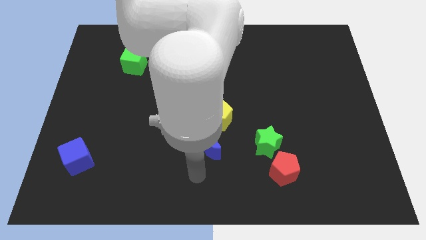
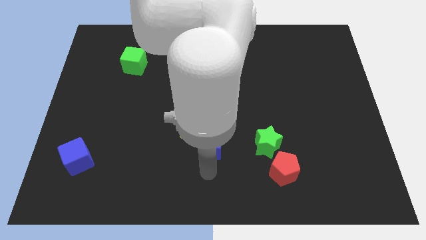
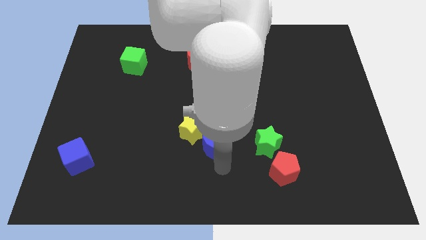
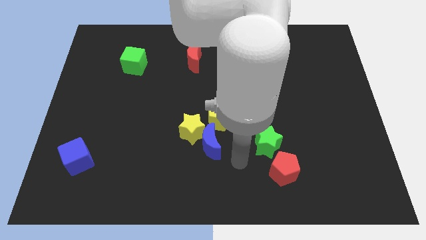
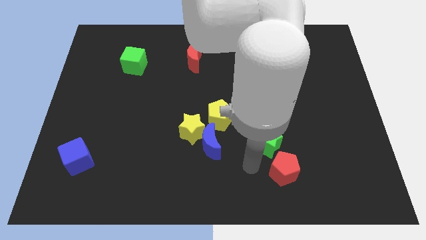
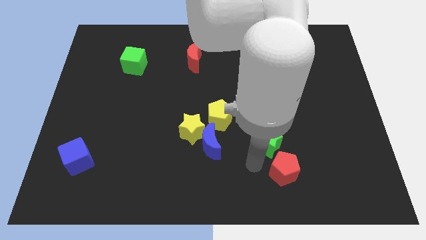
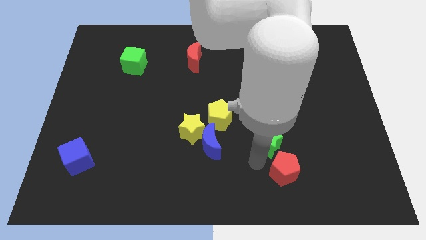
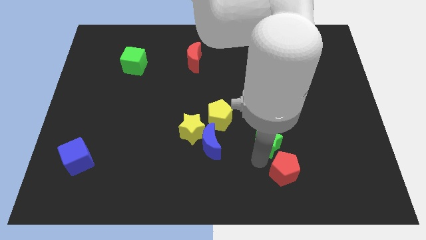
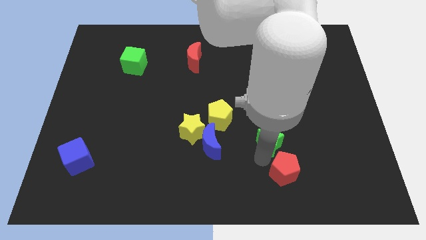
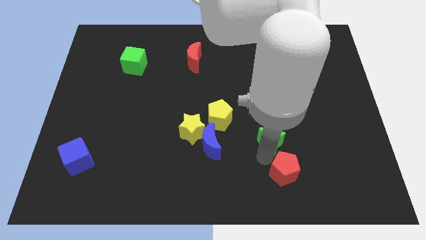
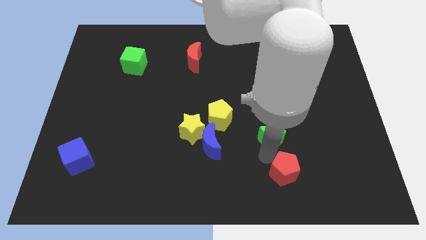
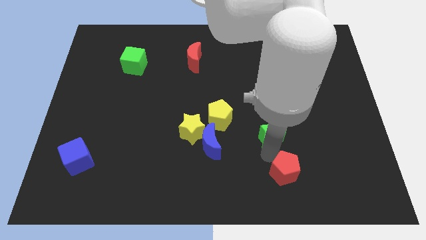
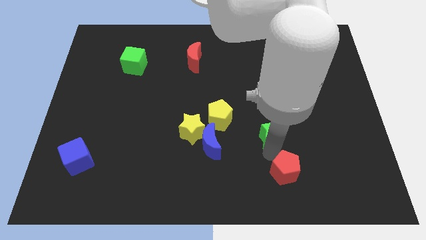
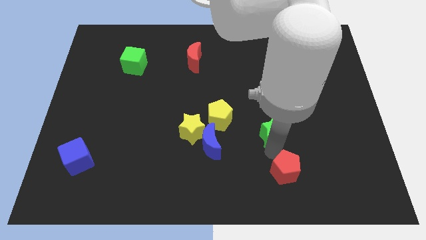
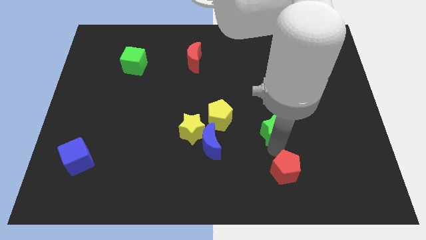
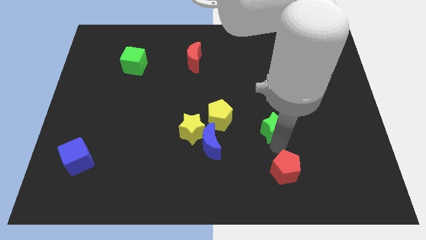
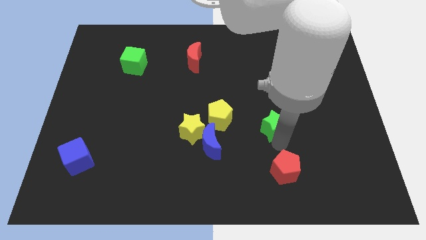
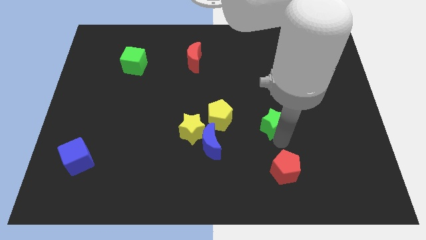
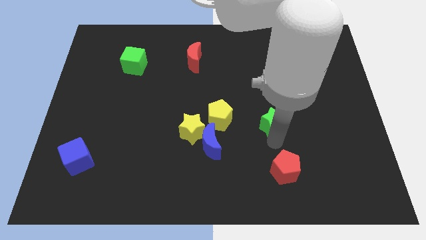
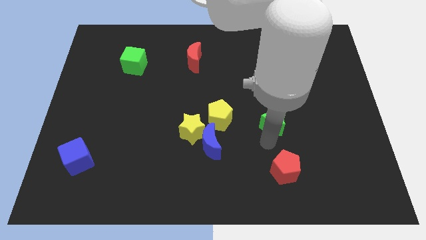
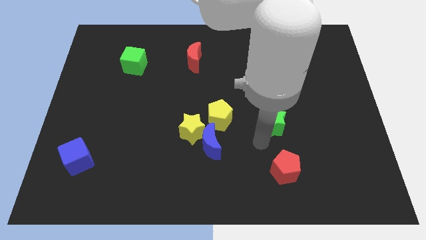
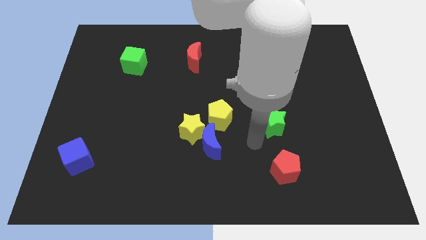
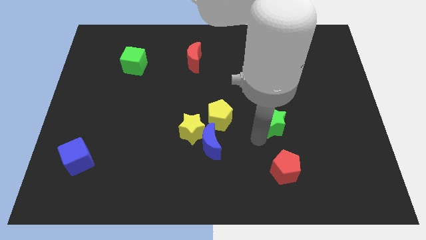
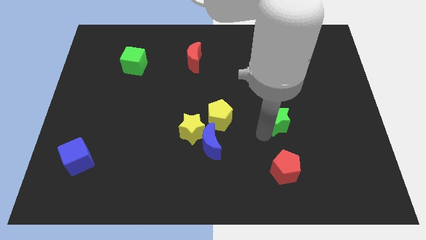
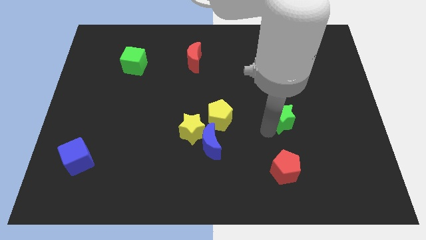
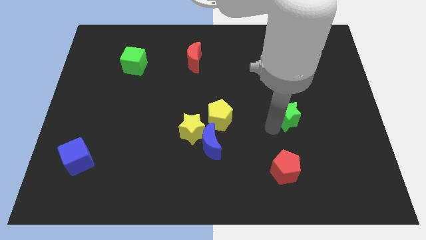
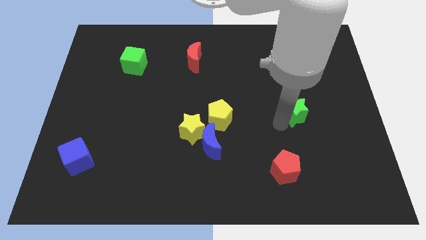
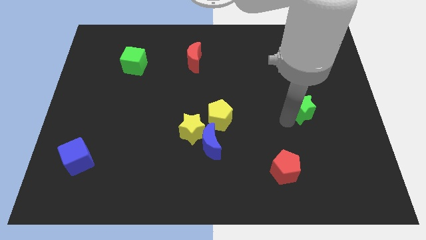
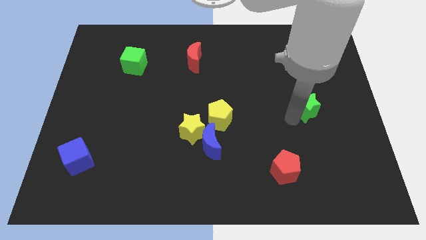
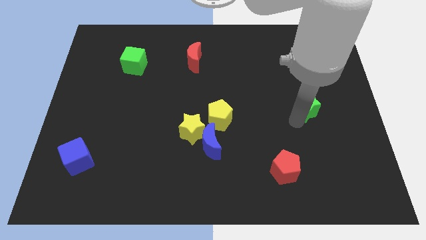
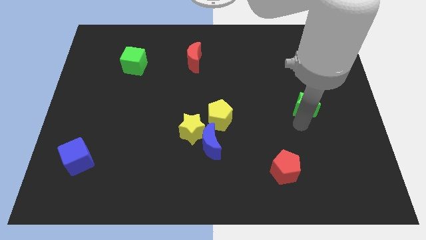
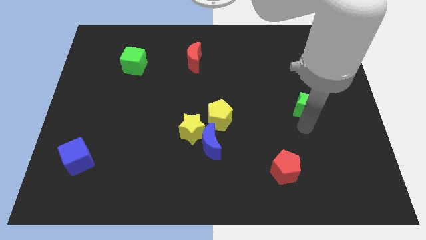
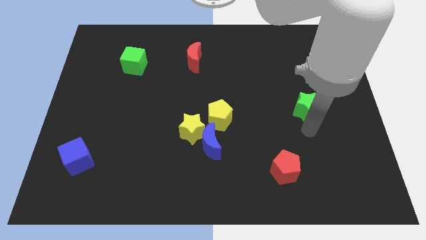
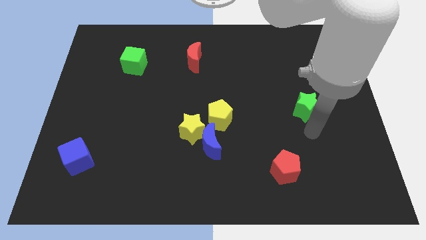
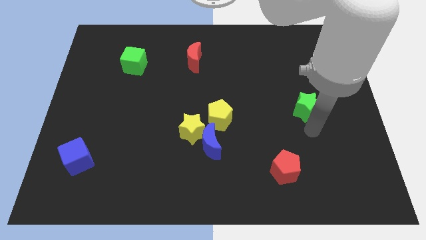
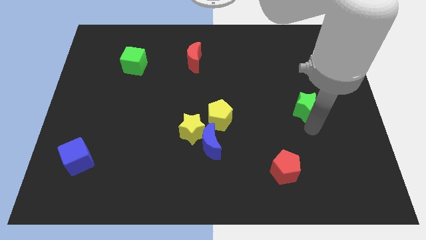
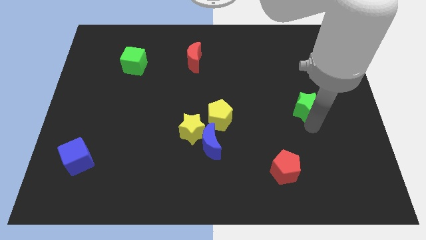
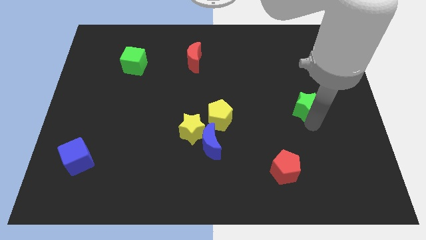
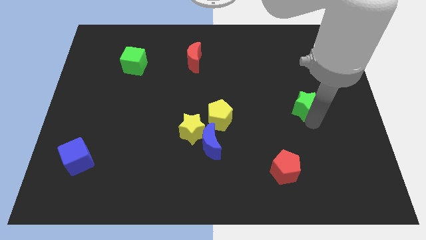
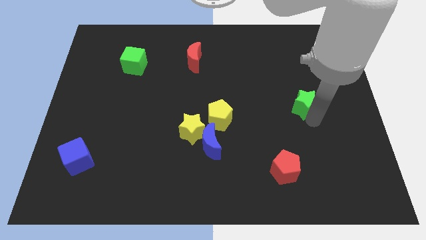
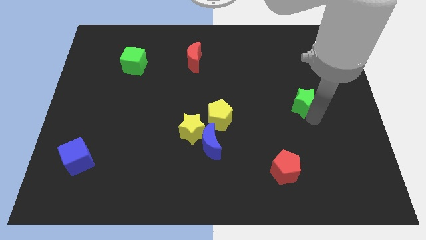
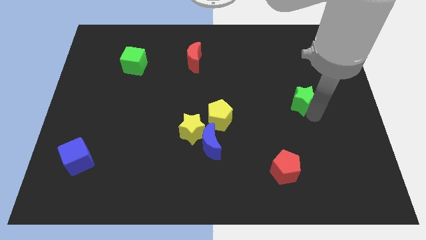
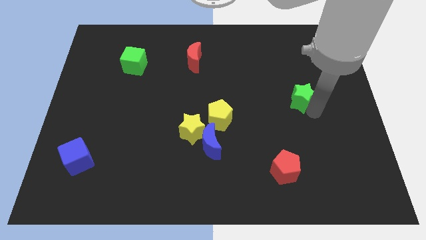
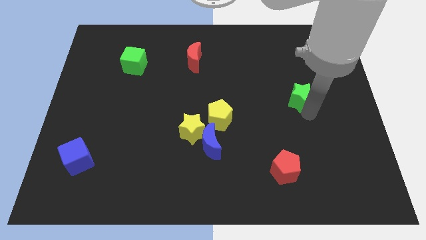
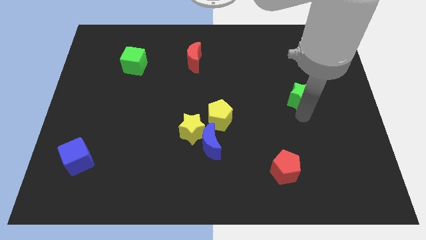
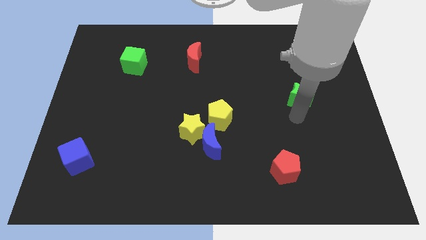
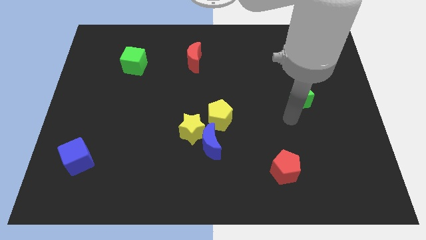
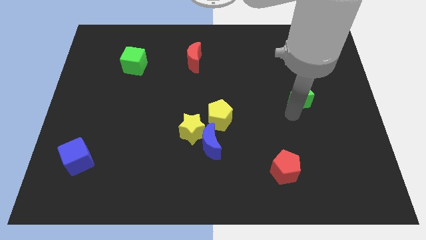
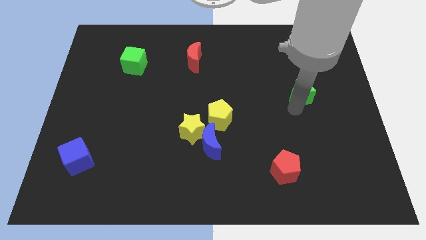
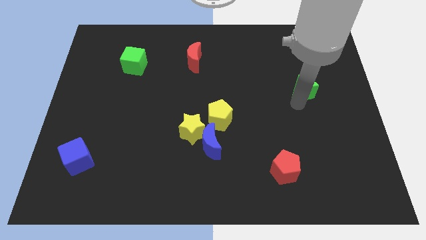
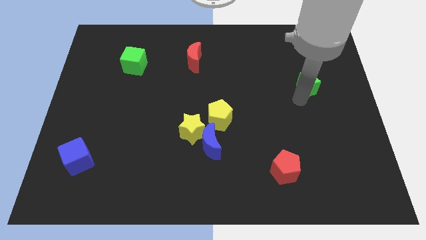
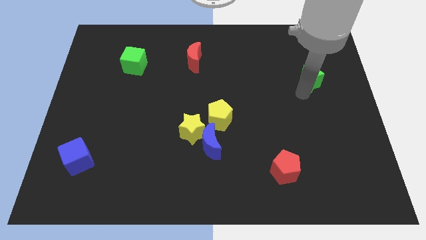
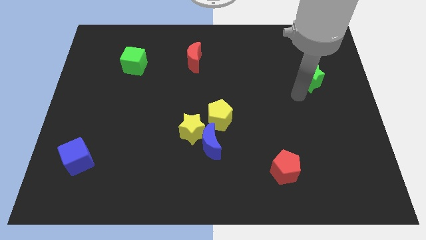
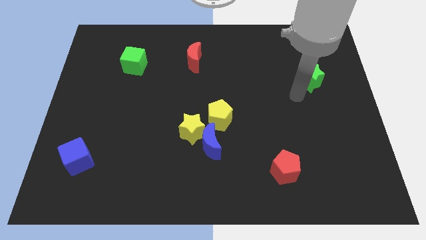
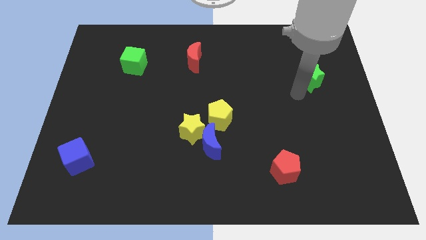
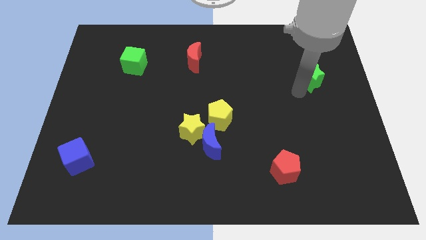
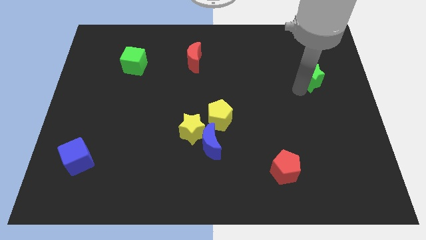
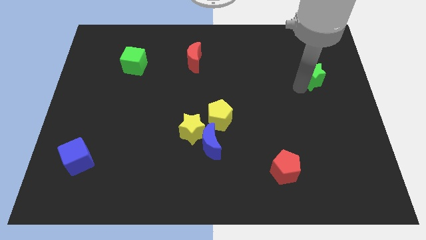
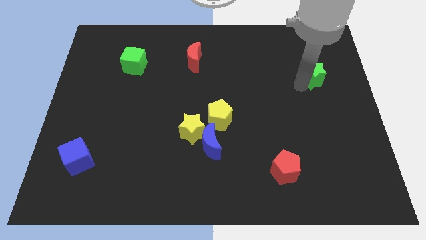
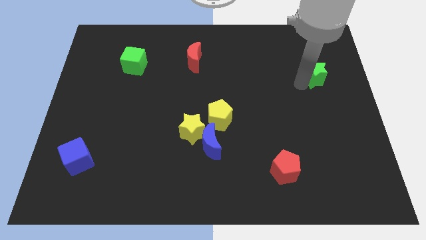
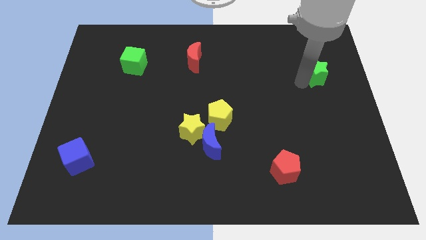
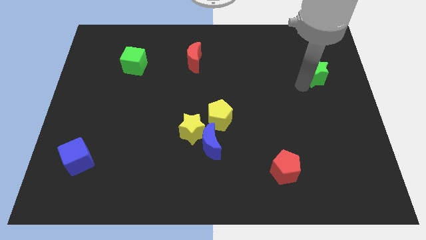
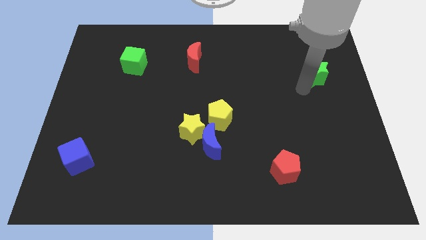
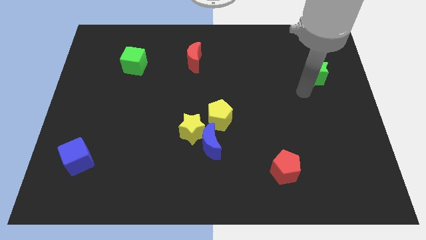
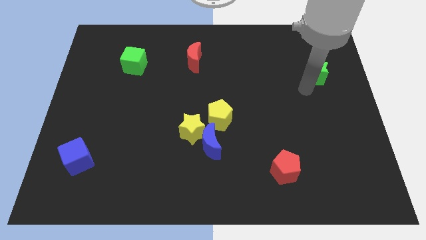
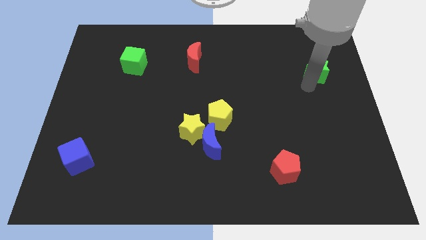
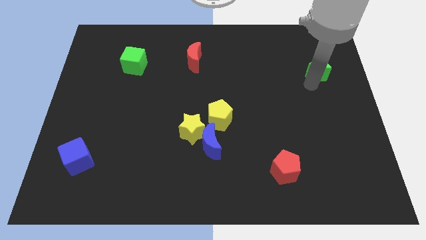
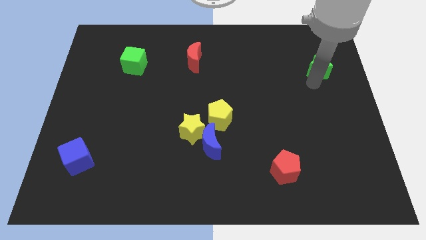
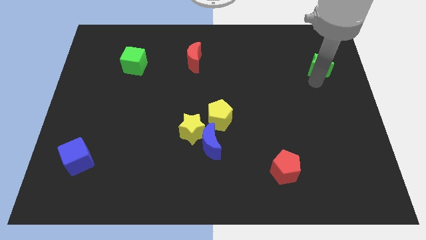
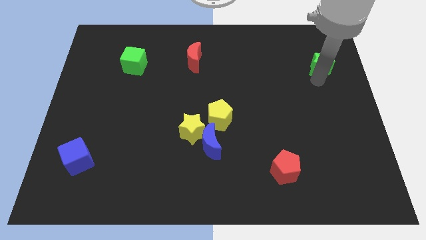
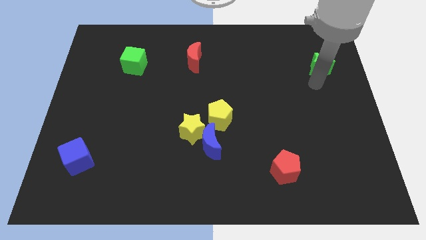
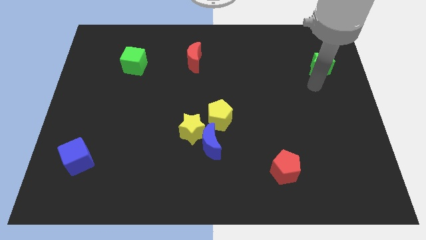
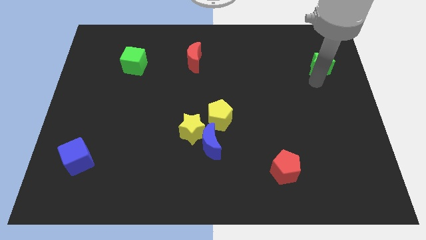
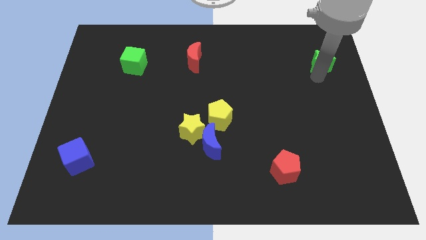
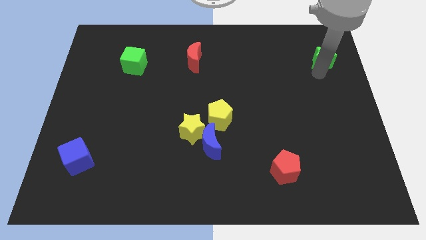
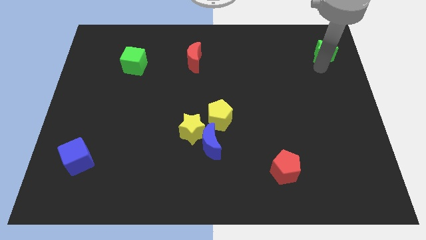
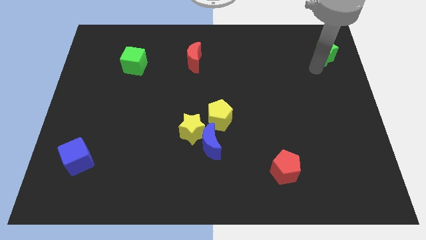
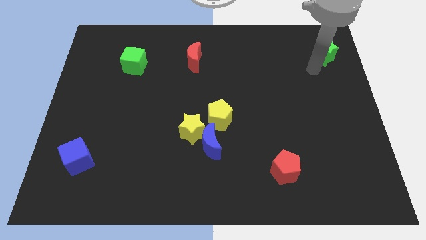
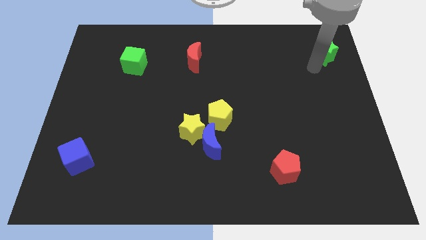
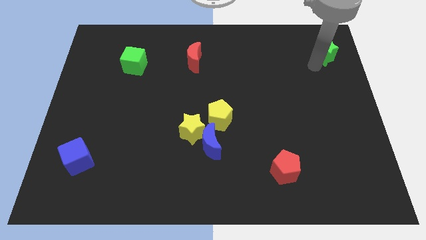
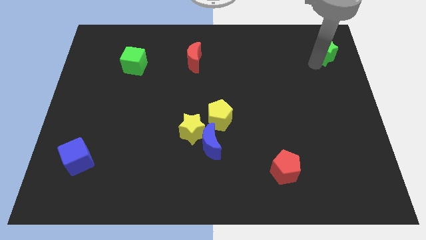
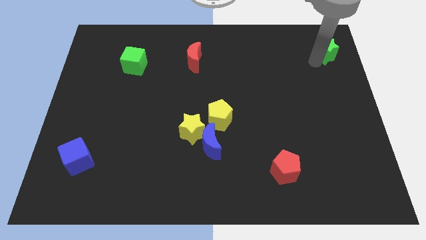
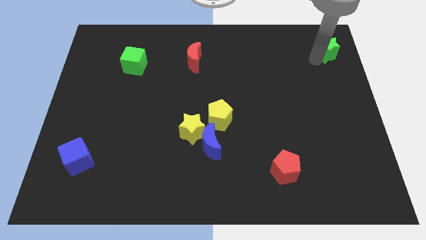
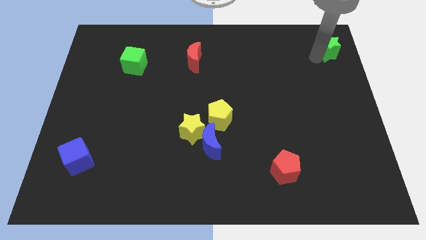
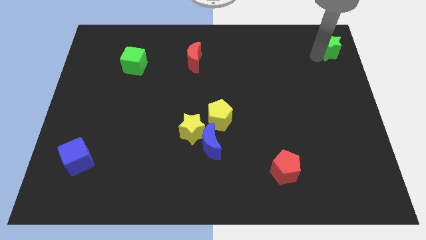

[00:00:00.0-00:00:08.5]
move the green star to the upper right corner
